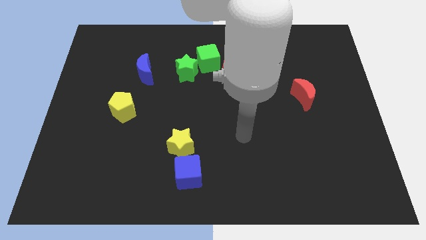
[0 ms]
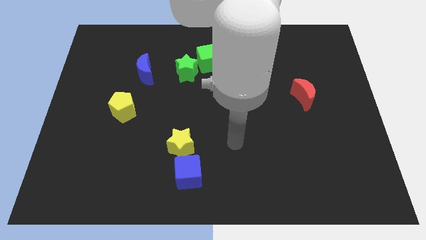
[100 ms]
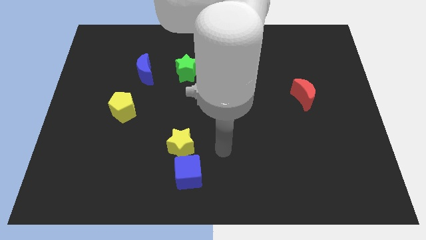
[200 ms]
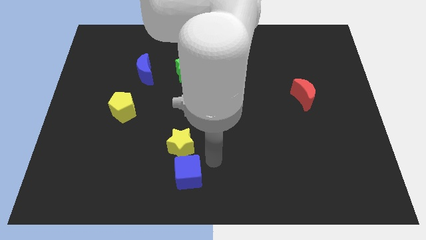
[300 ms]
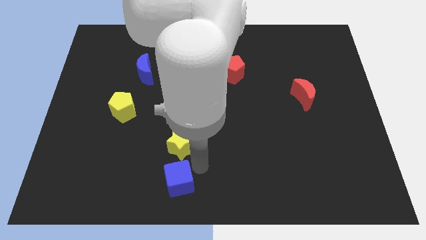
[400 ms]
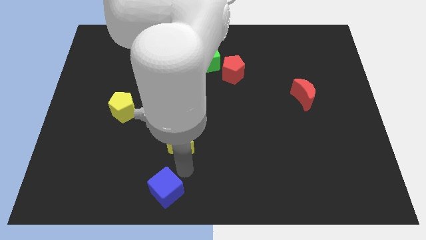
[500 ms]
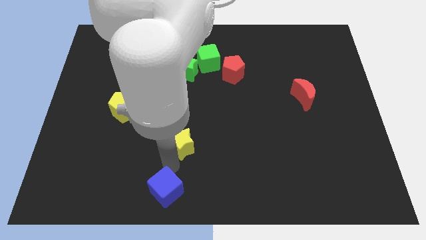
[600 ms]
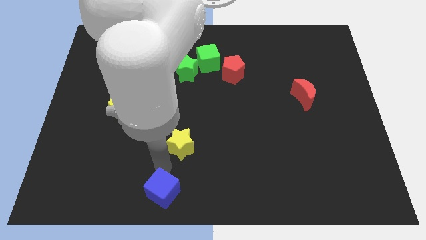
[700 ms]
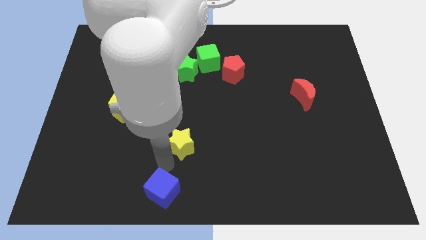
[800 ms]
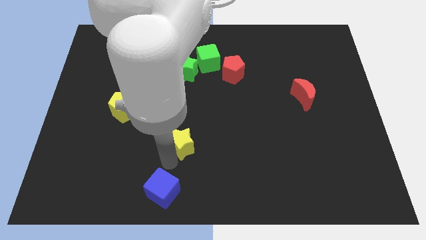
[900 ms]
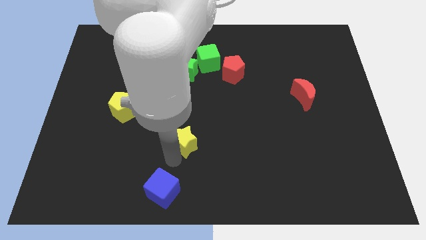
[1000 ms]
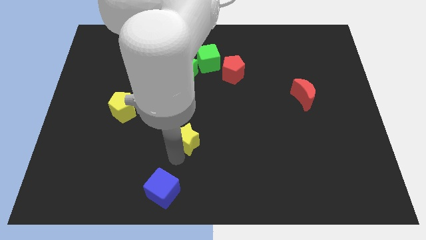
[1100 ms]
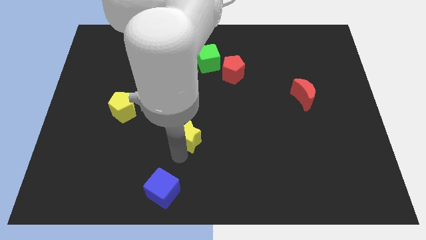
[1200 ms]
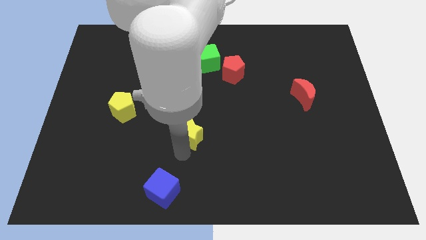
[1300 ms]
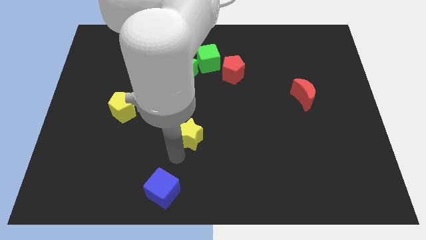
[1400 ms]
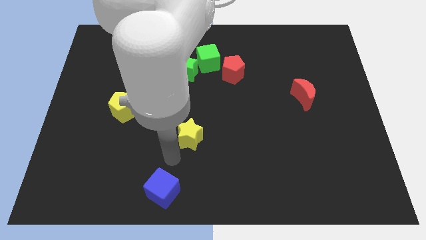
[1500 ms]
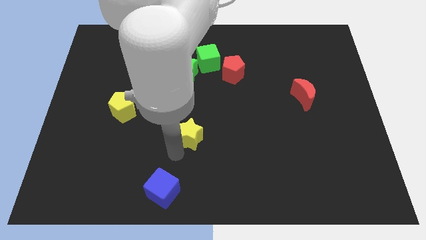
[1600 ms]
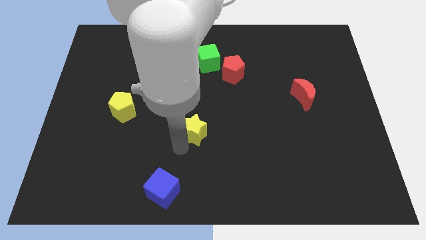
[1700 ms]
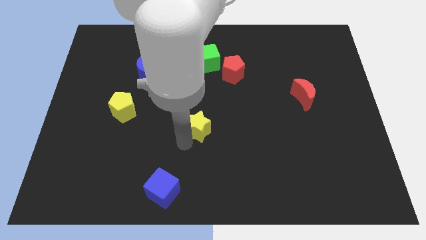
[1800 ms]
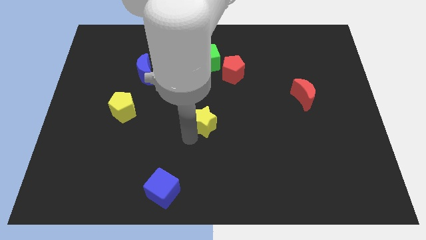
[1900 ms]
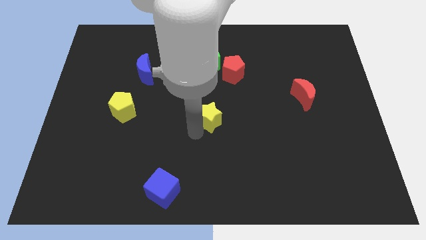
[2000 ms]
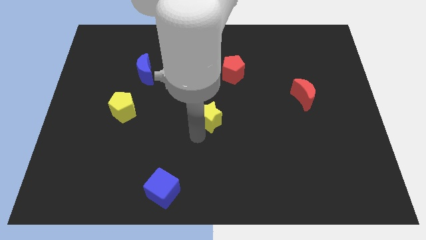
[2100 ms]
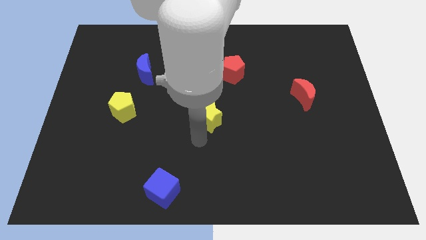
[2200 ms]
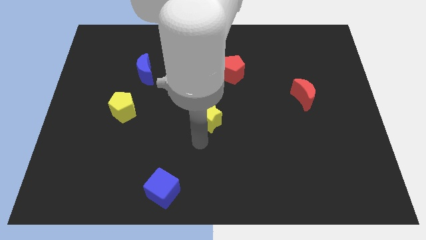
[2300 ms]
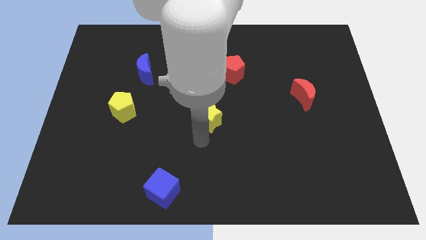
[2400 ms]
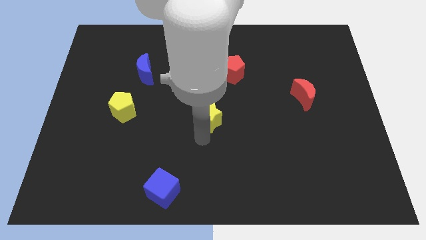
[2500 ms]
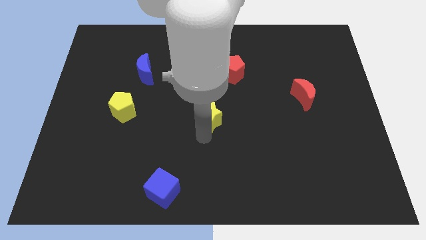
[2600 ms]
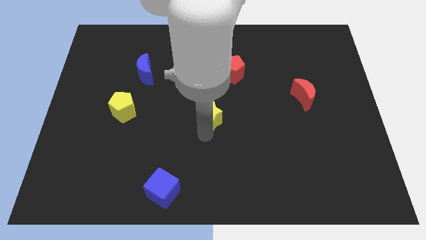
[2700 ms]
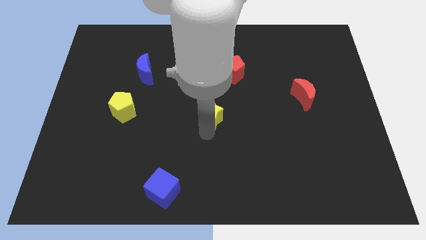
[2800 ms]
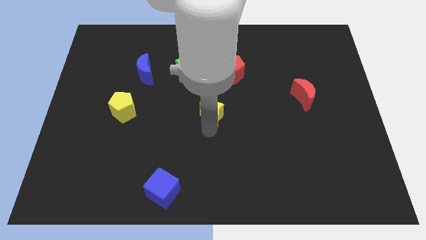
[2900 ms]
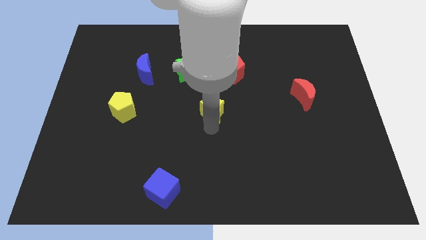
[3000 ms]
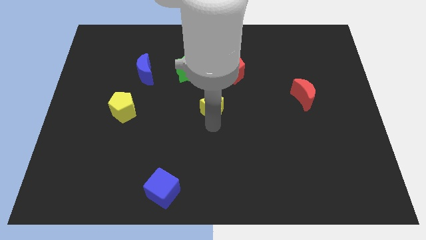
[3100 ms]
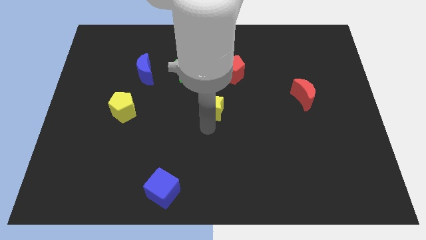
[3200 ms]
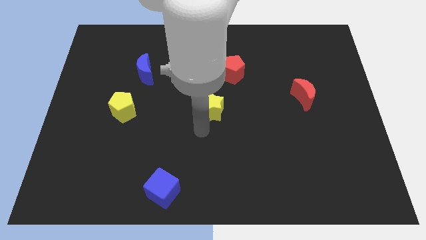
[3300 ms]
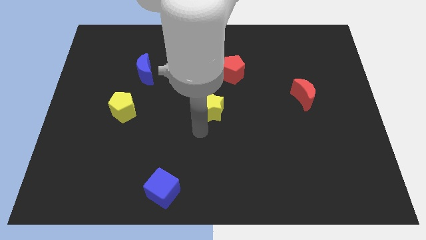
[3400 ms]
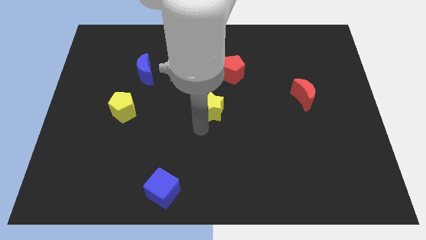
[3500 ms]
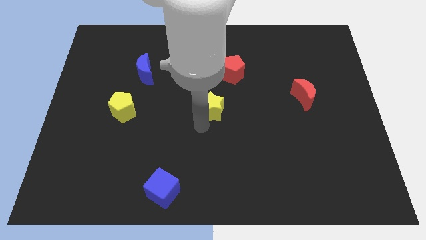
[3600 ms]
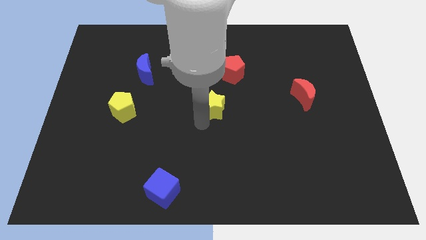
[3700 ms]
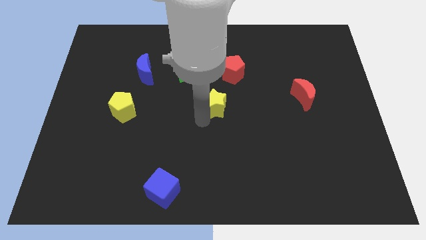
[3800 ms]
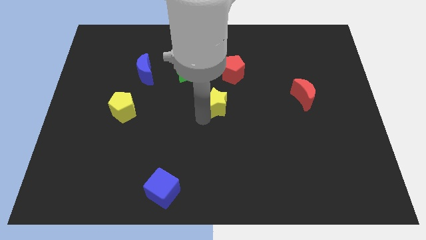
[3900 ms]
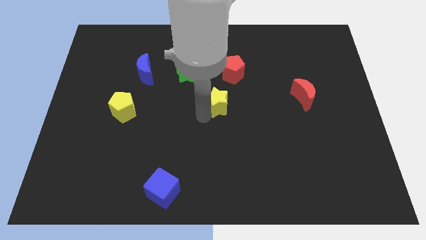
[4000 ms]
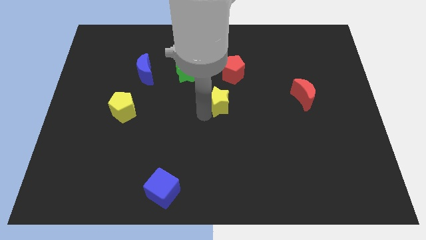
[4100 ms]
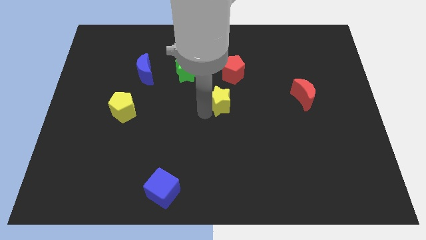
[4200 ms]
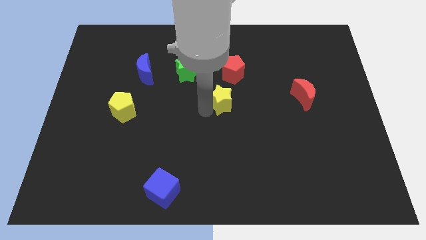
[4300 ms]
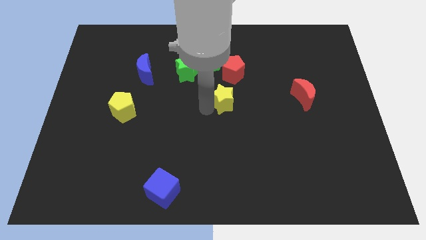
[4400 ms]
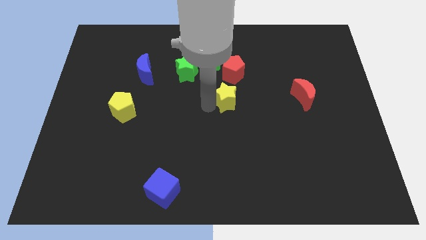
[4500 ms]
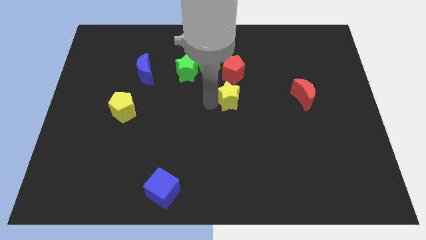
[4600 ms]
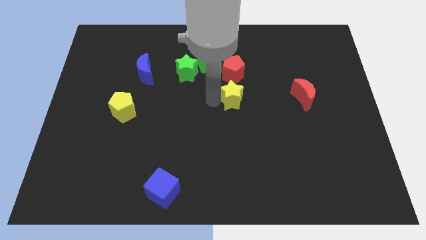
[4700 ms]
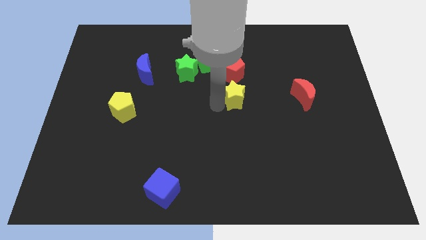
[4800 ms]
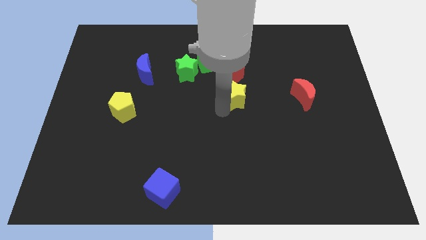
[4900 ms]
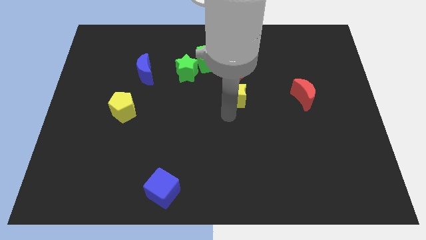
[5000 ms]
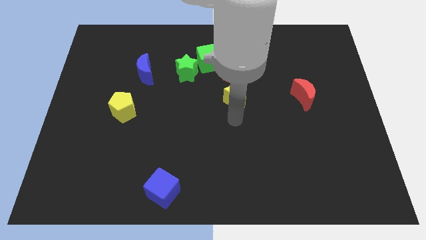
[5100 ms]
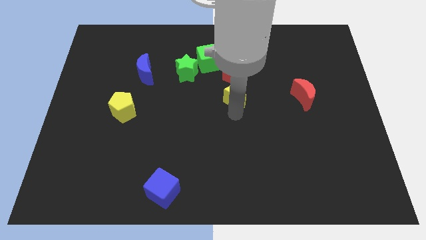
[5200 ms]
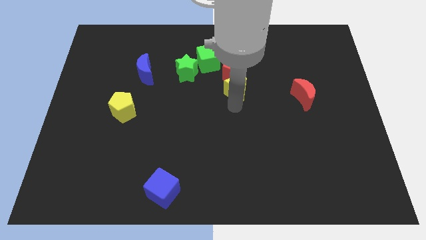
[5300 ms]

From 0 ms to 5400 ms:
push the yellow star close to the red pentagon

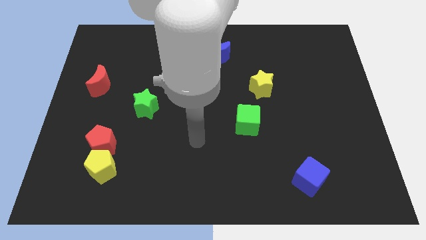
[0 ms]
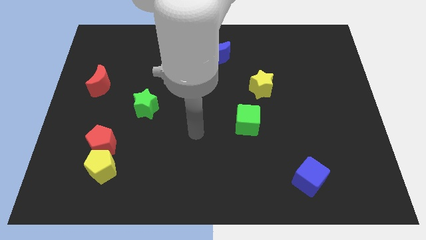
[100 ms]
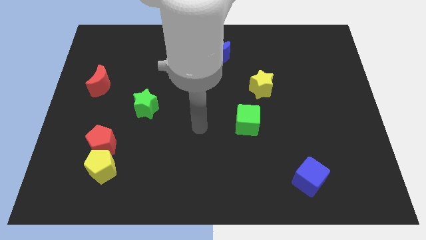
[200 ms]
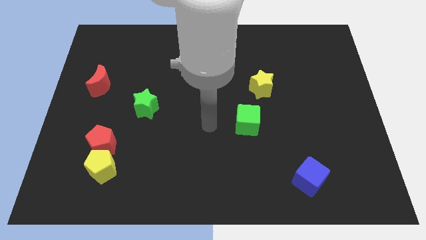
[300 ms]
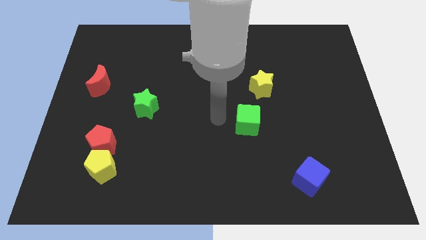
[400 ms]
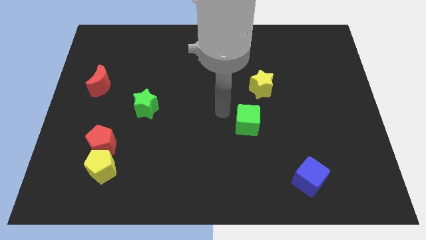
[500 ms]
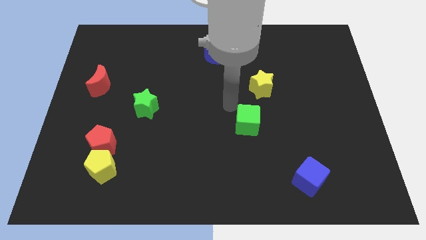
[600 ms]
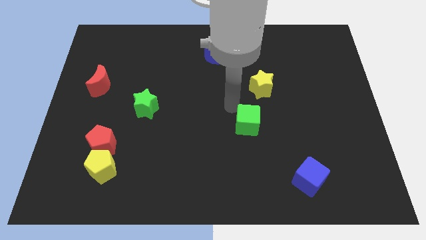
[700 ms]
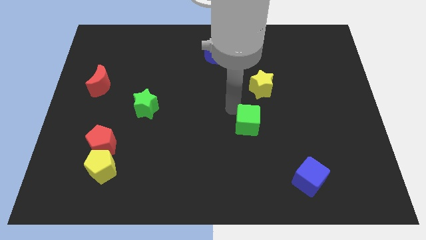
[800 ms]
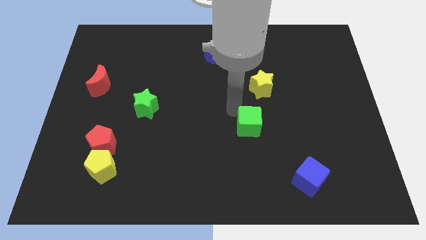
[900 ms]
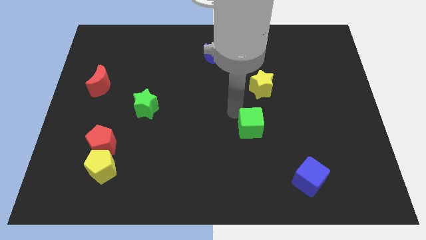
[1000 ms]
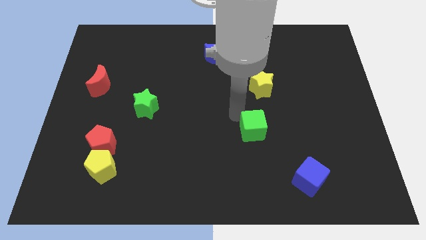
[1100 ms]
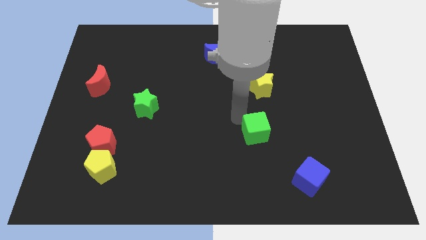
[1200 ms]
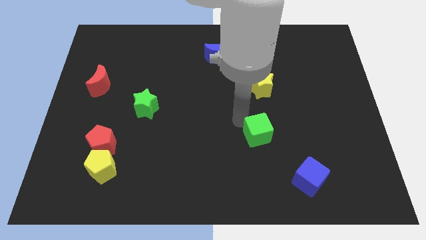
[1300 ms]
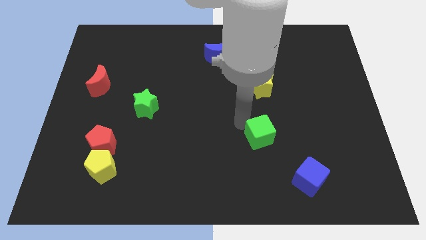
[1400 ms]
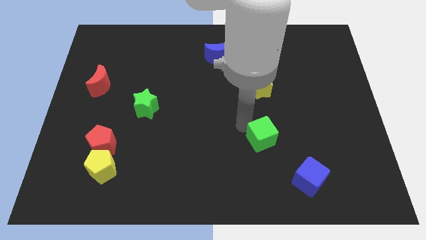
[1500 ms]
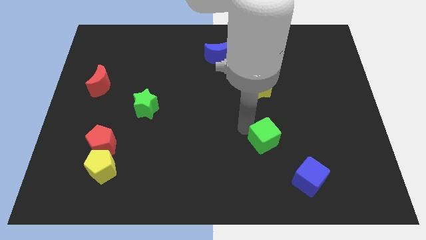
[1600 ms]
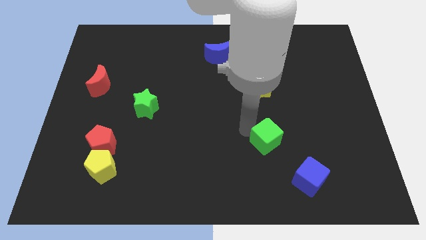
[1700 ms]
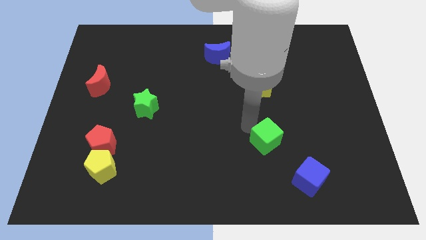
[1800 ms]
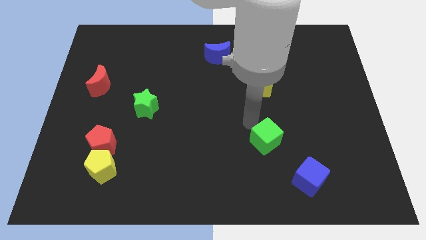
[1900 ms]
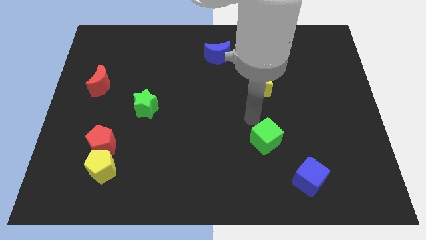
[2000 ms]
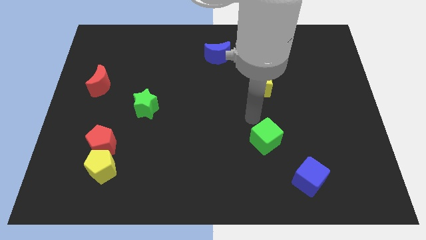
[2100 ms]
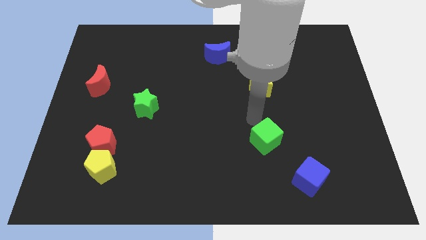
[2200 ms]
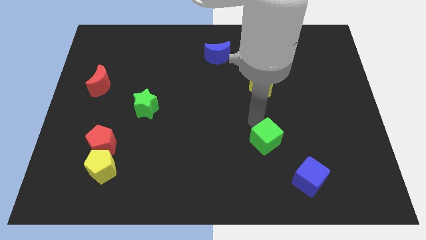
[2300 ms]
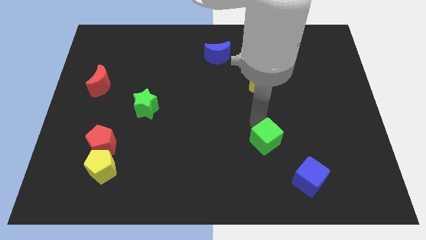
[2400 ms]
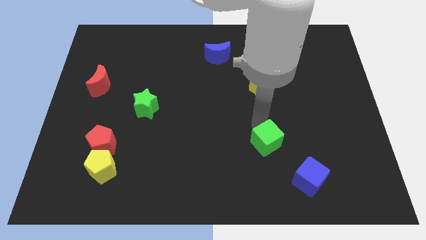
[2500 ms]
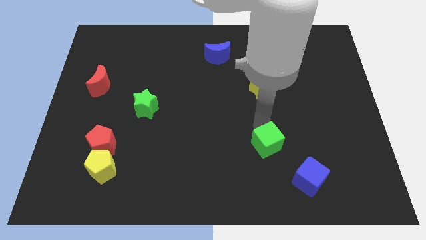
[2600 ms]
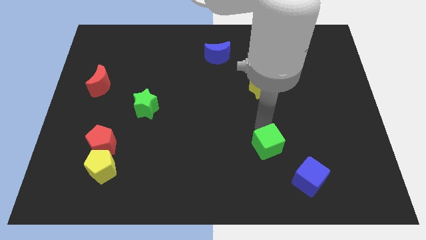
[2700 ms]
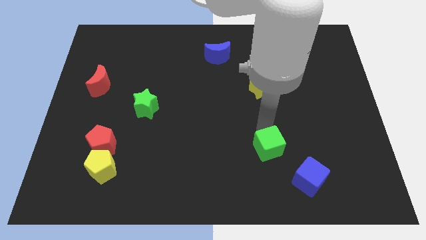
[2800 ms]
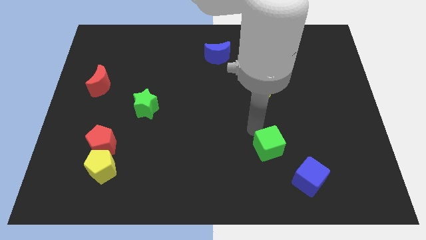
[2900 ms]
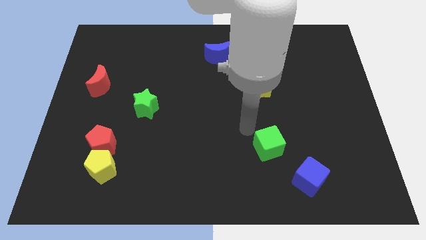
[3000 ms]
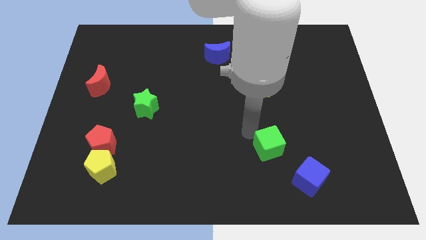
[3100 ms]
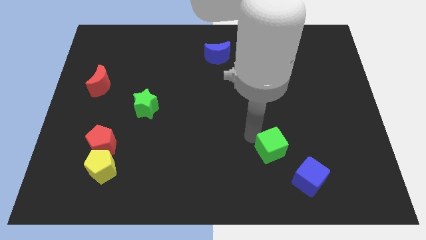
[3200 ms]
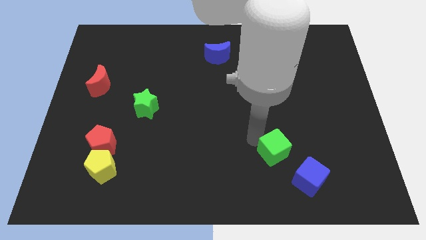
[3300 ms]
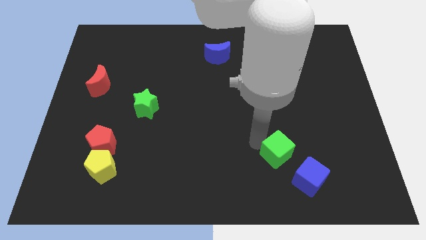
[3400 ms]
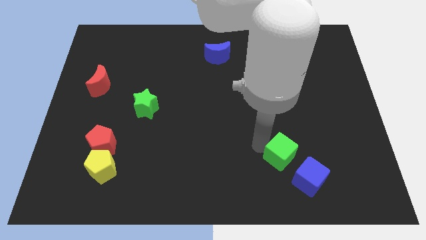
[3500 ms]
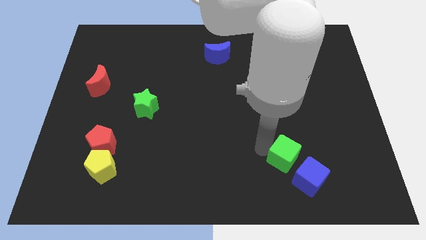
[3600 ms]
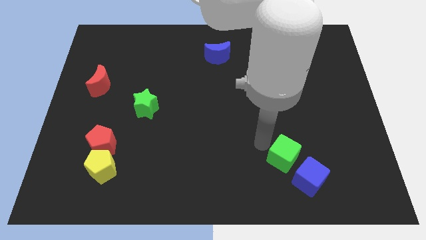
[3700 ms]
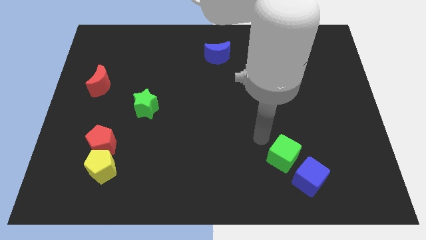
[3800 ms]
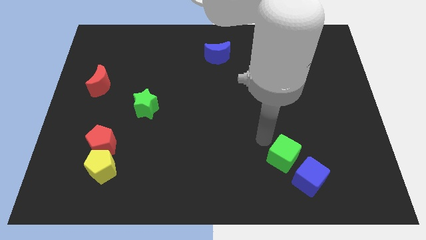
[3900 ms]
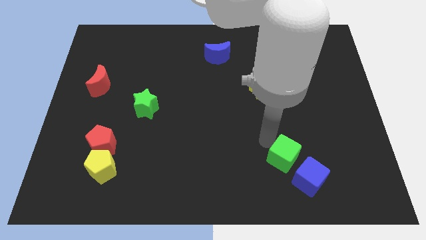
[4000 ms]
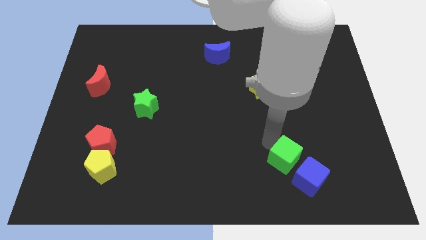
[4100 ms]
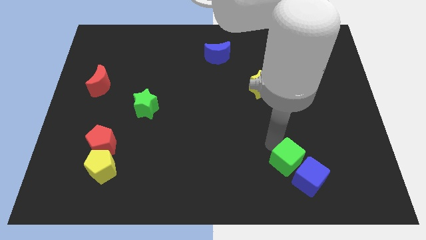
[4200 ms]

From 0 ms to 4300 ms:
put the green cube close to the blue cube
